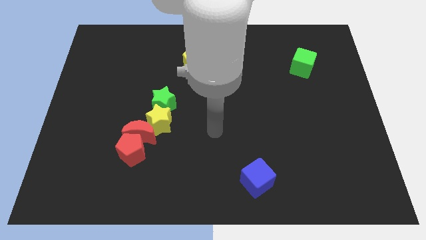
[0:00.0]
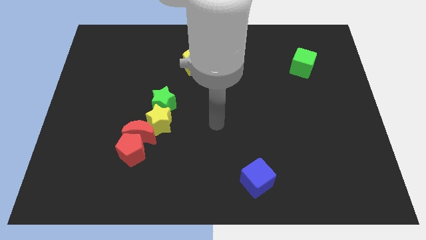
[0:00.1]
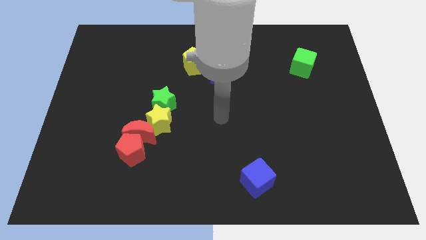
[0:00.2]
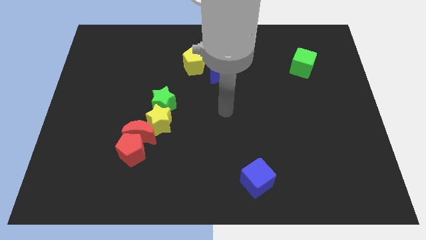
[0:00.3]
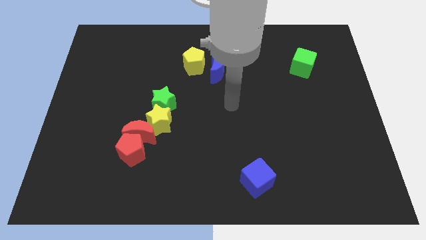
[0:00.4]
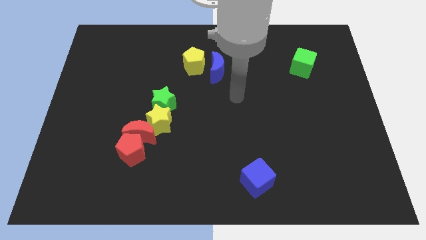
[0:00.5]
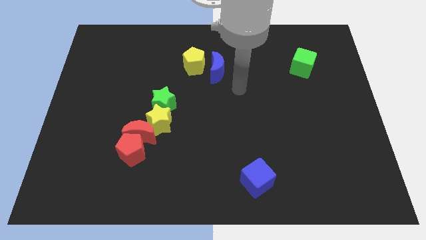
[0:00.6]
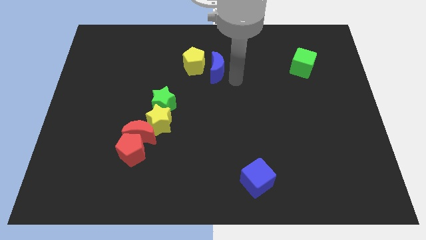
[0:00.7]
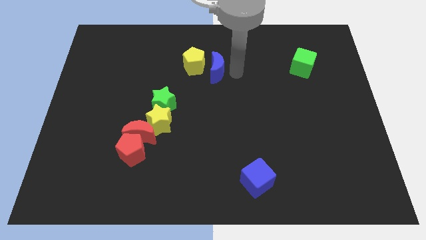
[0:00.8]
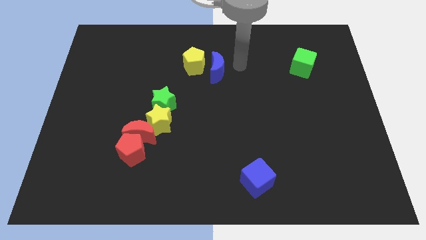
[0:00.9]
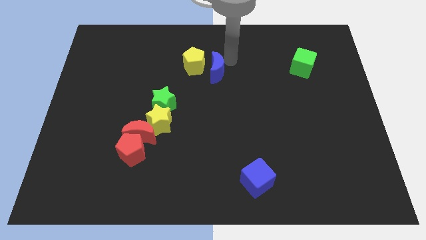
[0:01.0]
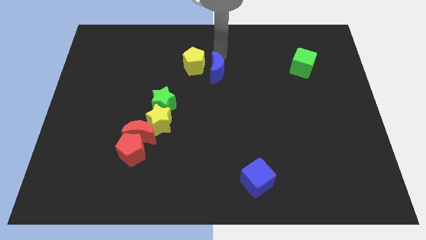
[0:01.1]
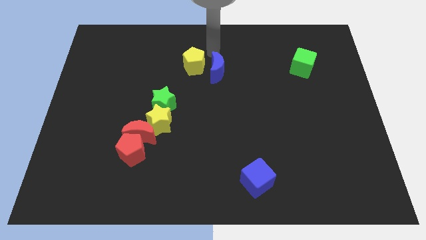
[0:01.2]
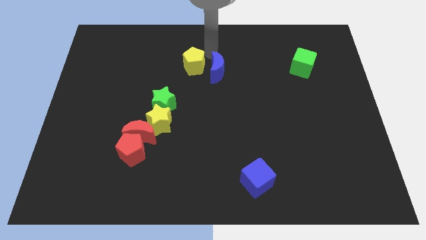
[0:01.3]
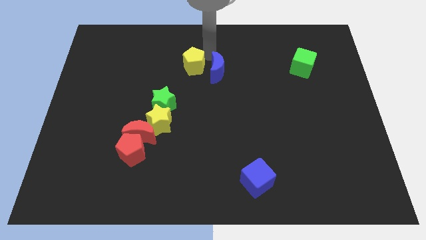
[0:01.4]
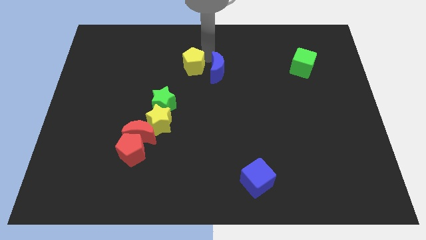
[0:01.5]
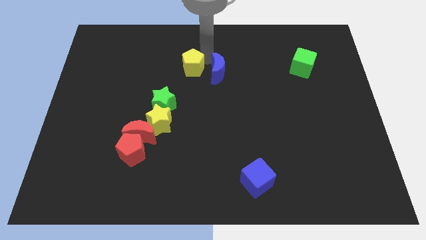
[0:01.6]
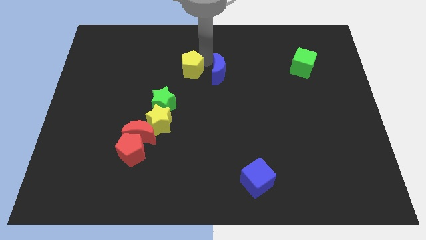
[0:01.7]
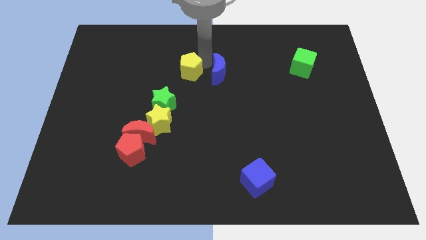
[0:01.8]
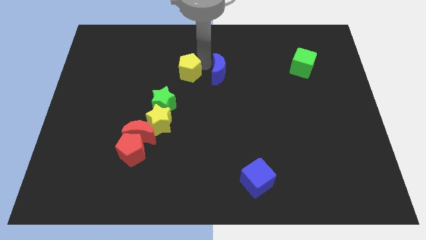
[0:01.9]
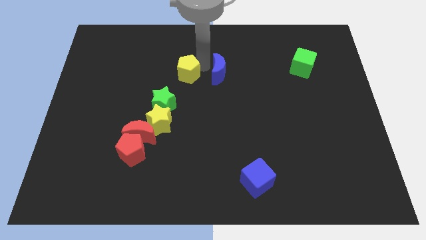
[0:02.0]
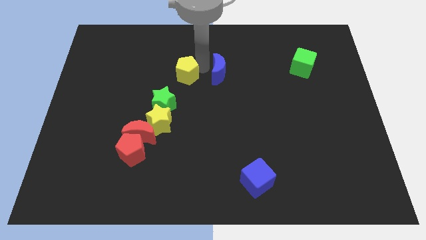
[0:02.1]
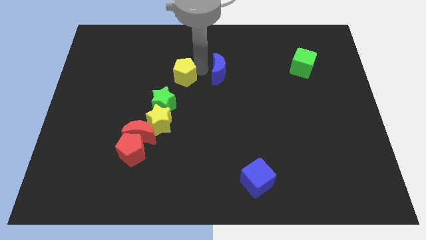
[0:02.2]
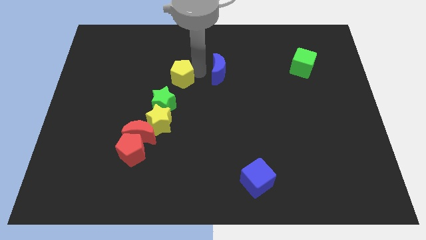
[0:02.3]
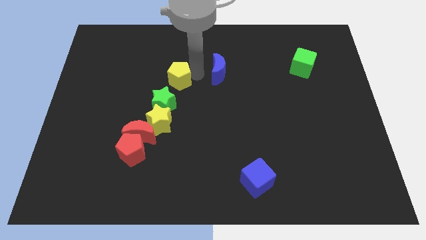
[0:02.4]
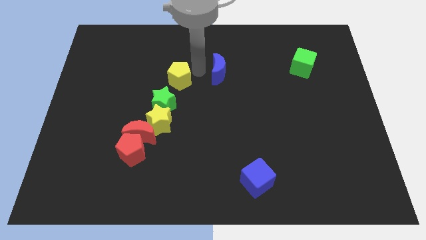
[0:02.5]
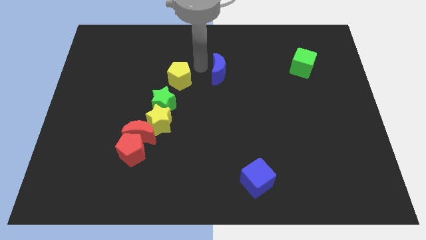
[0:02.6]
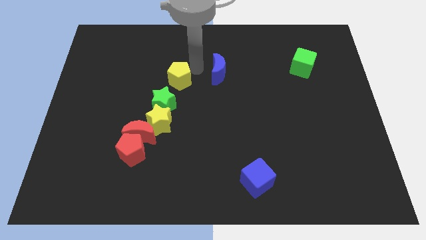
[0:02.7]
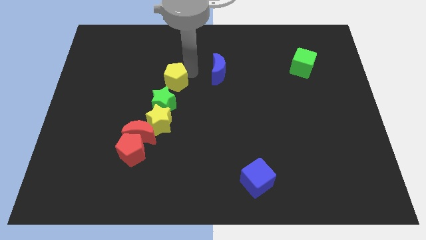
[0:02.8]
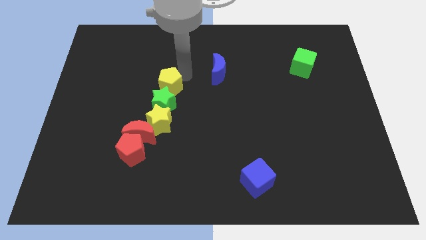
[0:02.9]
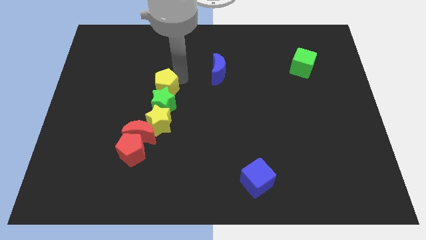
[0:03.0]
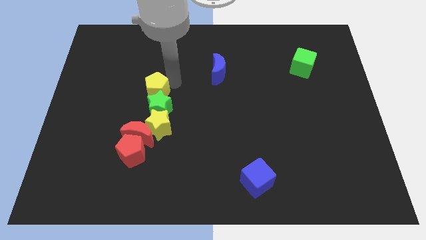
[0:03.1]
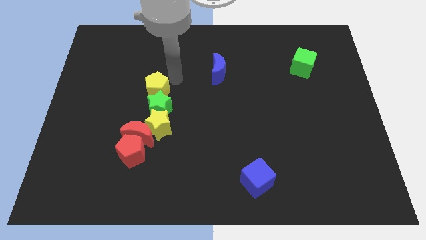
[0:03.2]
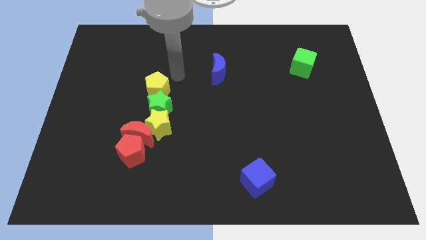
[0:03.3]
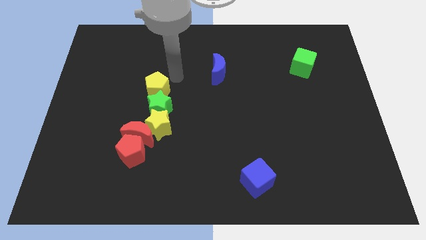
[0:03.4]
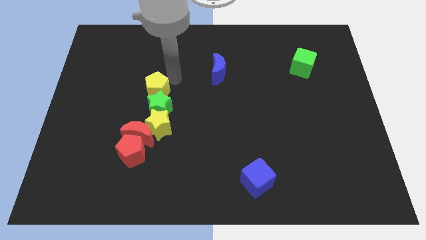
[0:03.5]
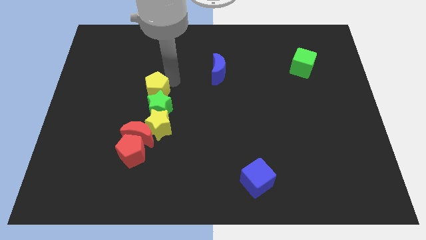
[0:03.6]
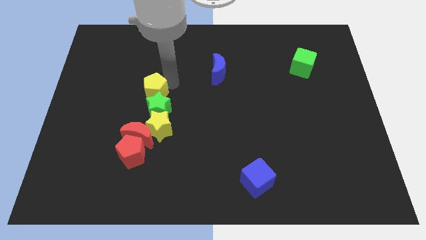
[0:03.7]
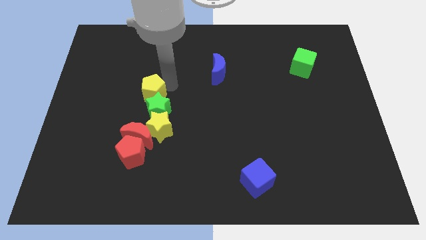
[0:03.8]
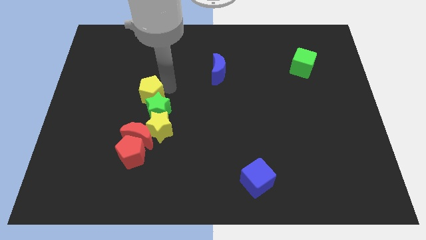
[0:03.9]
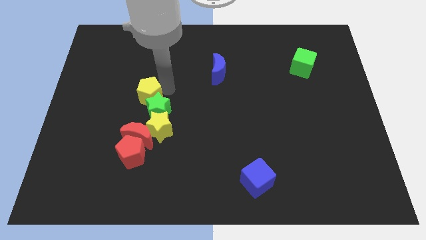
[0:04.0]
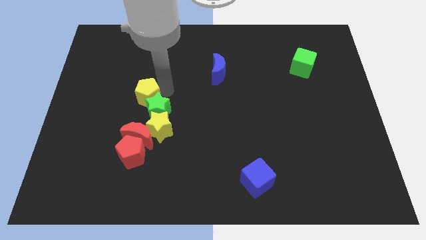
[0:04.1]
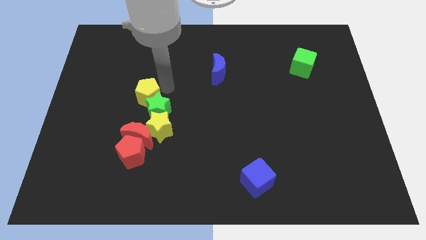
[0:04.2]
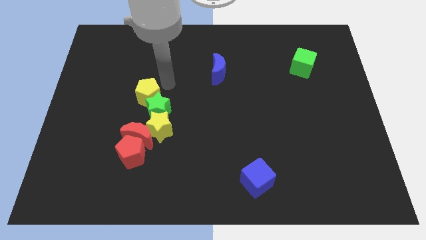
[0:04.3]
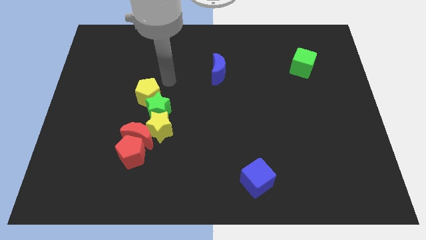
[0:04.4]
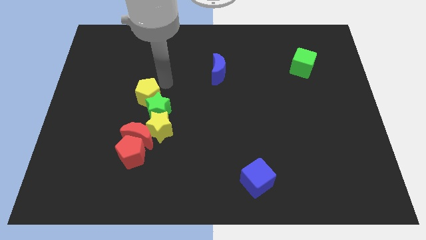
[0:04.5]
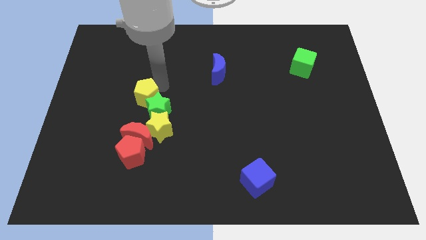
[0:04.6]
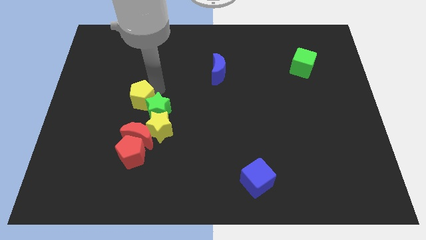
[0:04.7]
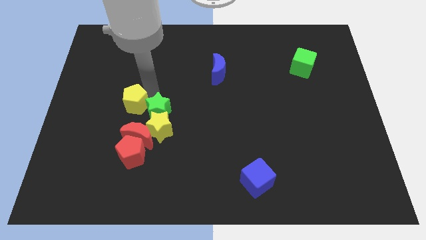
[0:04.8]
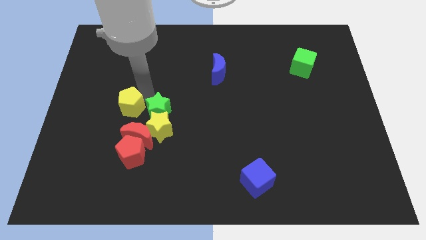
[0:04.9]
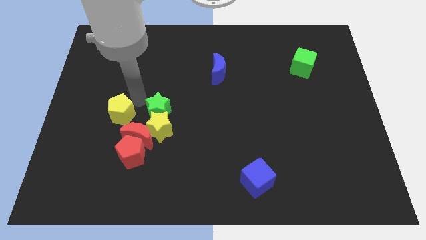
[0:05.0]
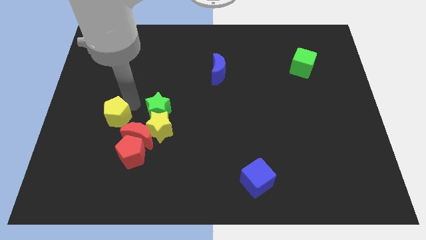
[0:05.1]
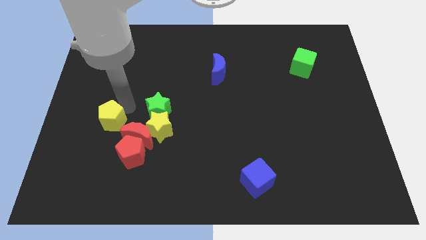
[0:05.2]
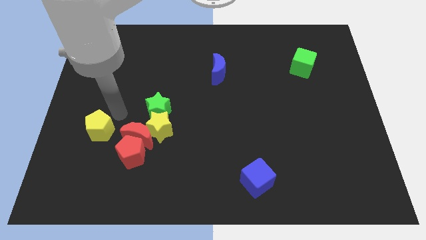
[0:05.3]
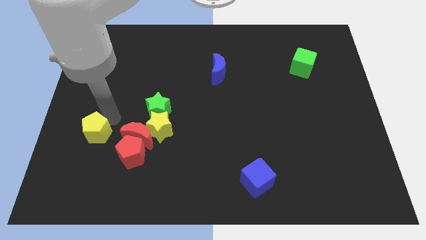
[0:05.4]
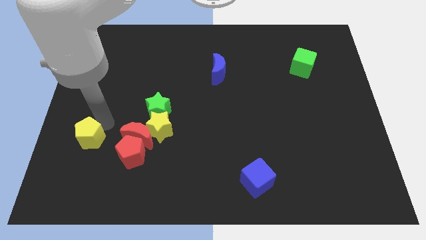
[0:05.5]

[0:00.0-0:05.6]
put the yellow pentagon to the left of the red pentagon

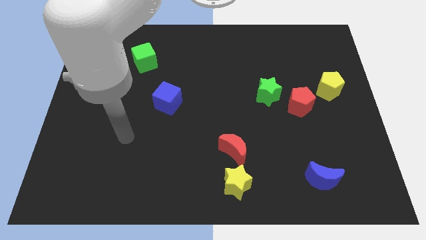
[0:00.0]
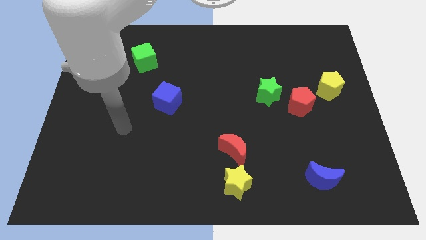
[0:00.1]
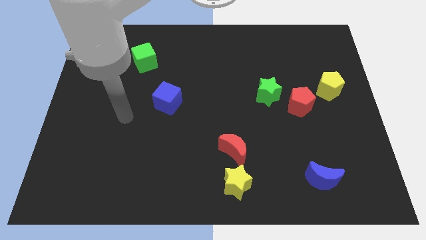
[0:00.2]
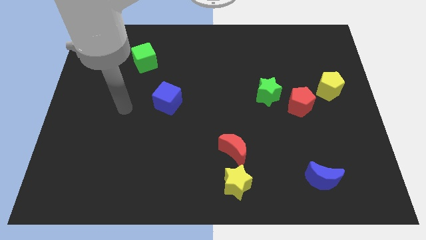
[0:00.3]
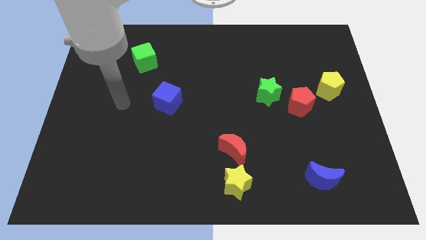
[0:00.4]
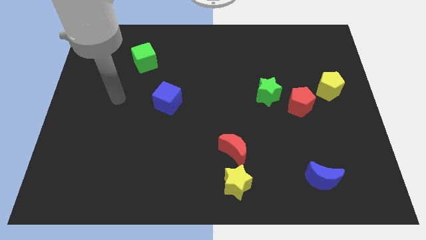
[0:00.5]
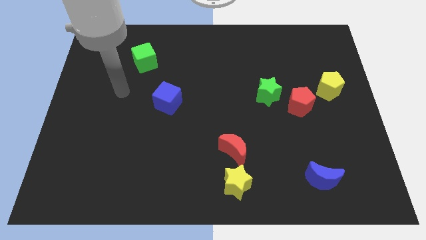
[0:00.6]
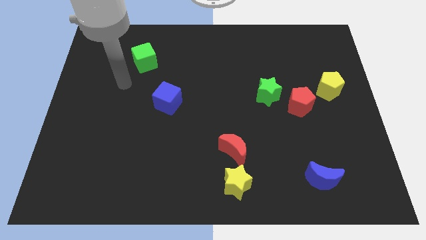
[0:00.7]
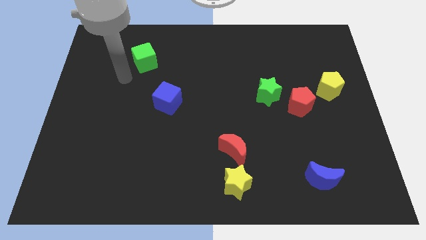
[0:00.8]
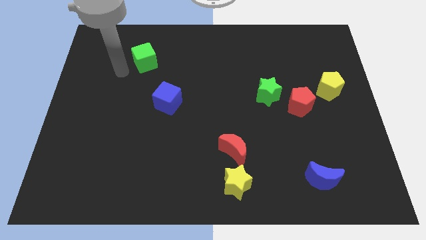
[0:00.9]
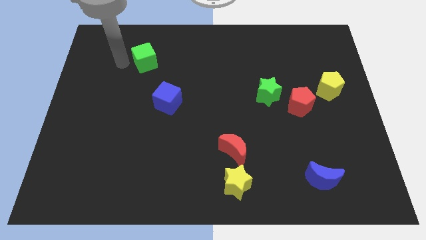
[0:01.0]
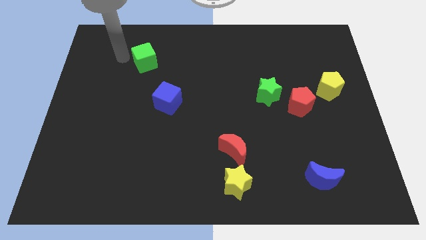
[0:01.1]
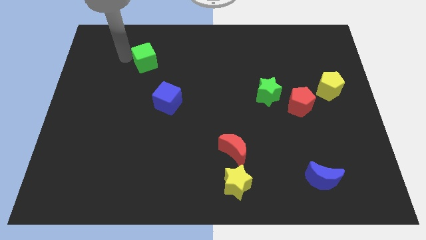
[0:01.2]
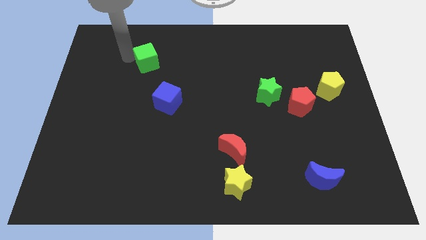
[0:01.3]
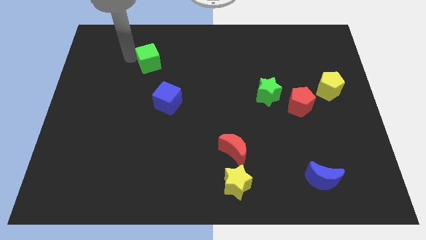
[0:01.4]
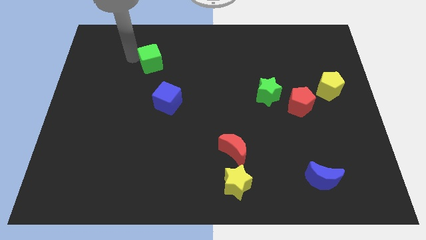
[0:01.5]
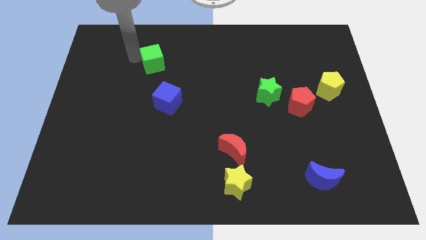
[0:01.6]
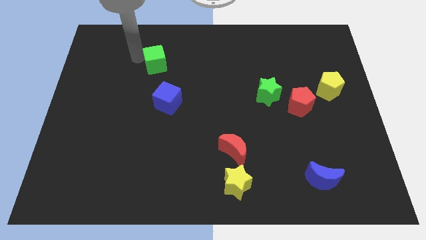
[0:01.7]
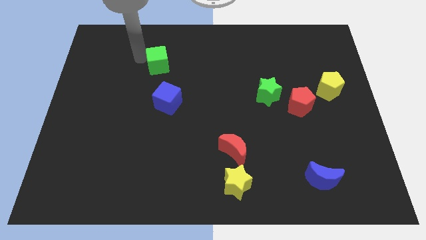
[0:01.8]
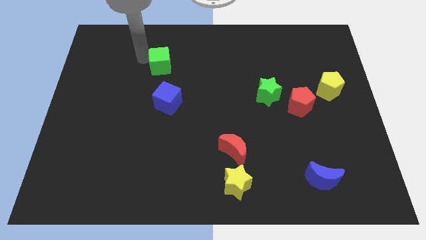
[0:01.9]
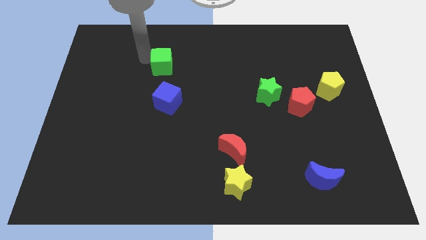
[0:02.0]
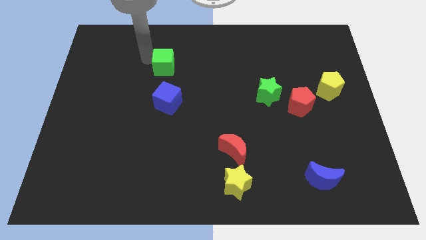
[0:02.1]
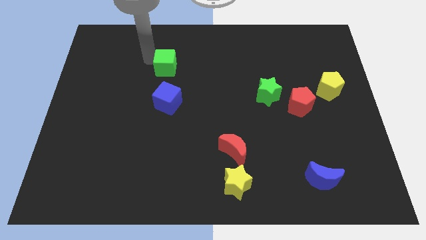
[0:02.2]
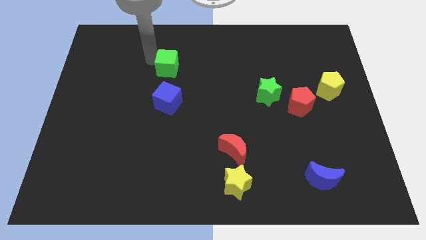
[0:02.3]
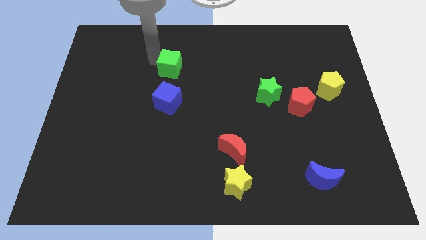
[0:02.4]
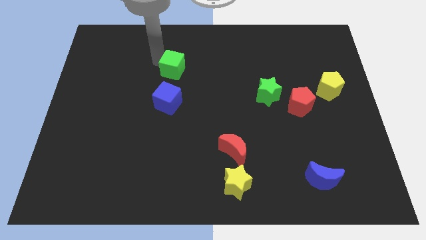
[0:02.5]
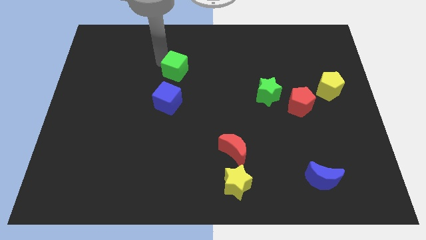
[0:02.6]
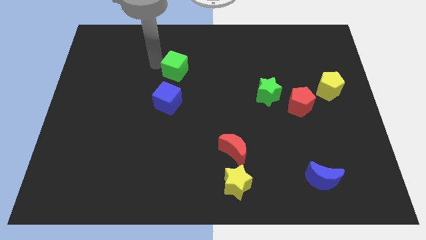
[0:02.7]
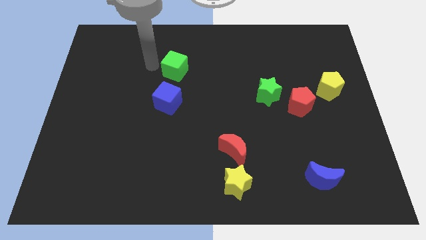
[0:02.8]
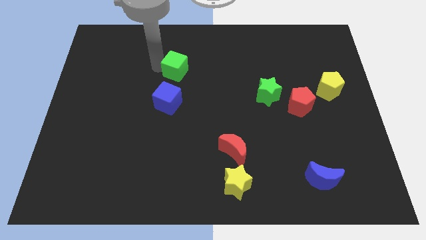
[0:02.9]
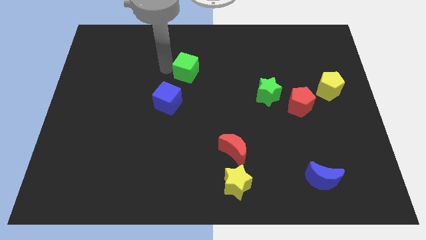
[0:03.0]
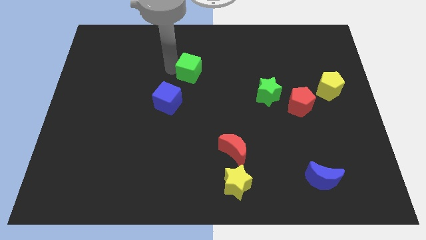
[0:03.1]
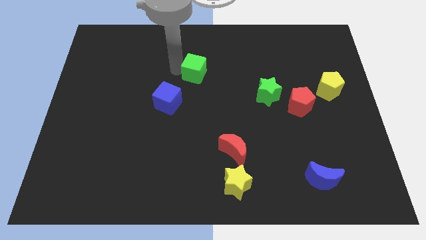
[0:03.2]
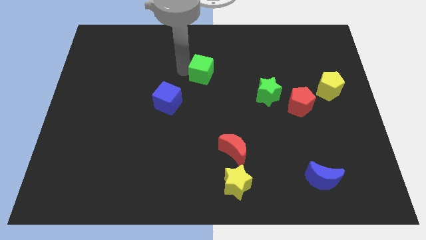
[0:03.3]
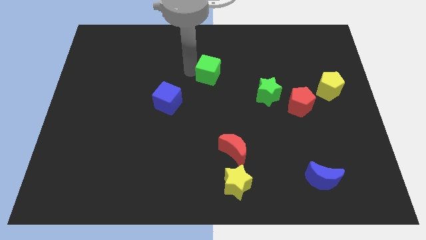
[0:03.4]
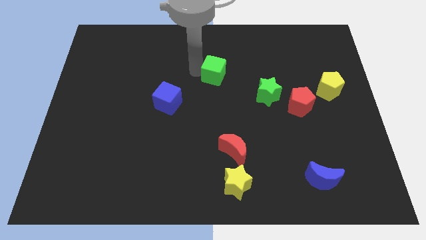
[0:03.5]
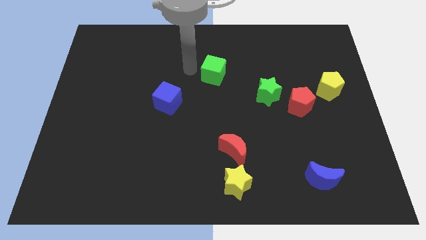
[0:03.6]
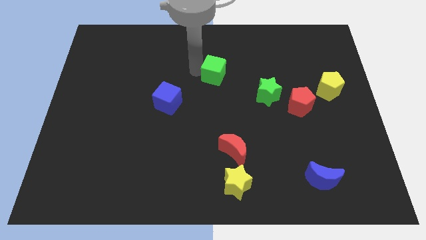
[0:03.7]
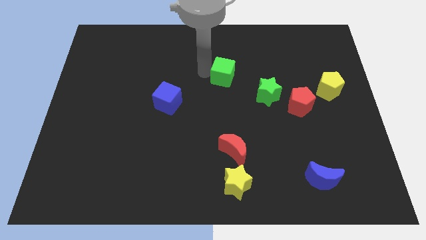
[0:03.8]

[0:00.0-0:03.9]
put the green cube to the top left side of the green star
